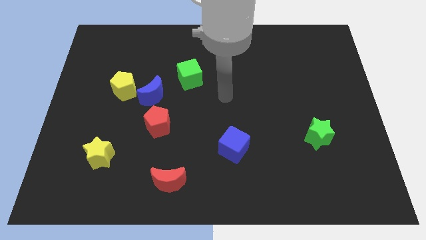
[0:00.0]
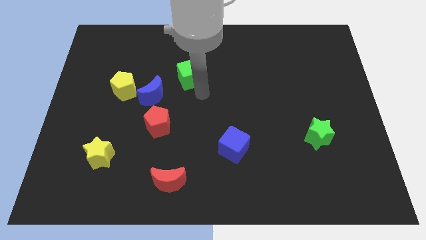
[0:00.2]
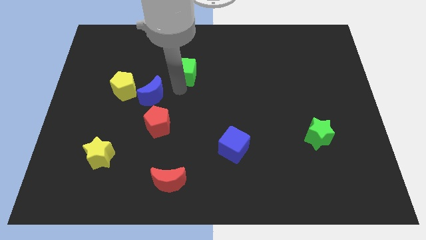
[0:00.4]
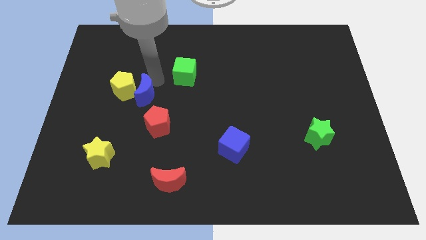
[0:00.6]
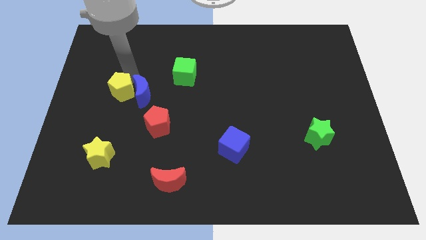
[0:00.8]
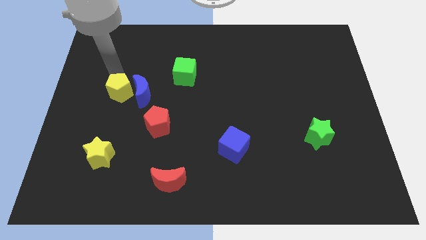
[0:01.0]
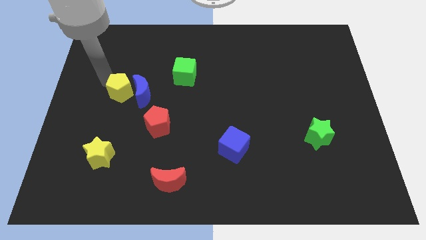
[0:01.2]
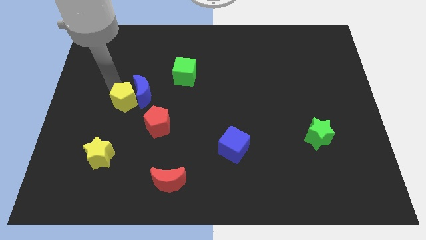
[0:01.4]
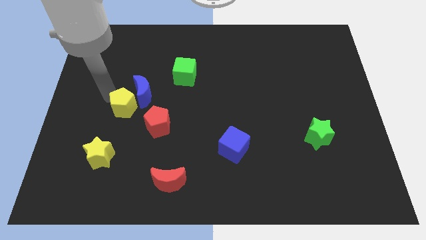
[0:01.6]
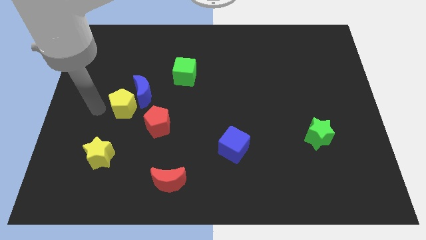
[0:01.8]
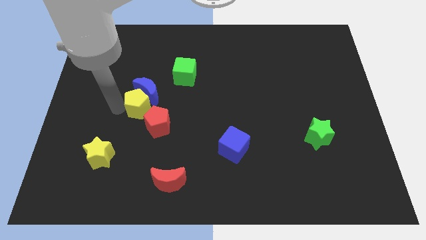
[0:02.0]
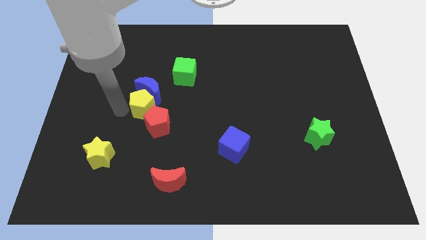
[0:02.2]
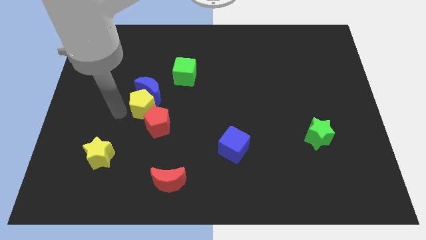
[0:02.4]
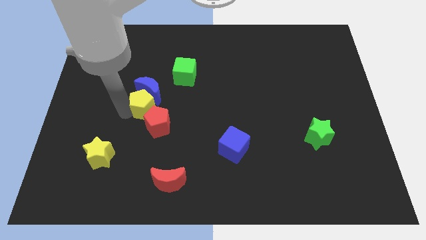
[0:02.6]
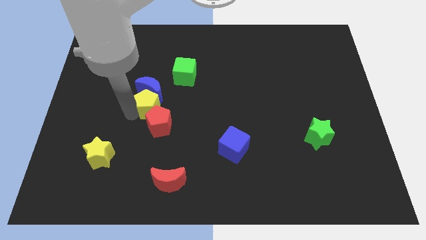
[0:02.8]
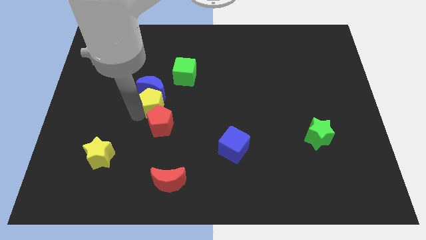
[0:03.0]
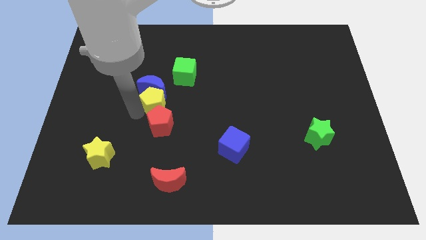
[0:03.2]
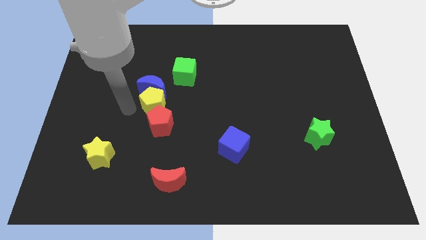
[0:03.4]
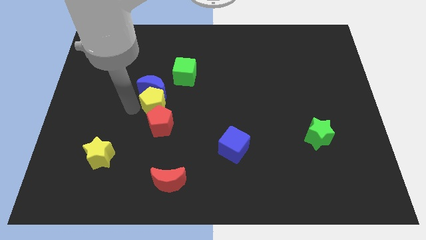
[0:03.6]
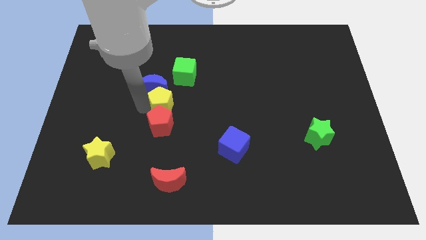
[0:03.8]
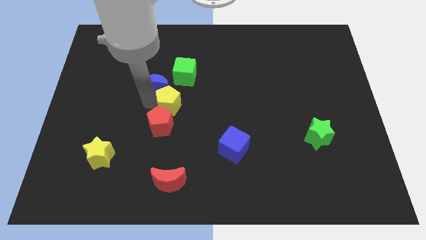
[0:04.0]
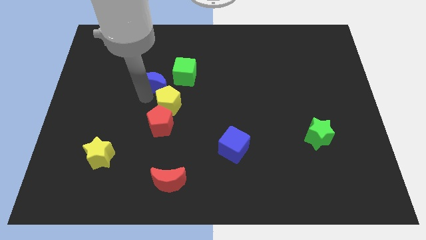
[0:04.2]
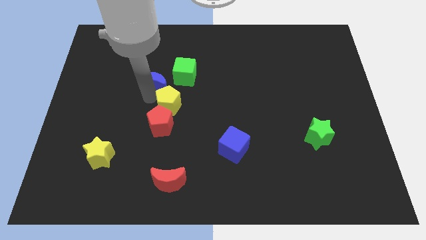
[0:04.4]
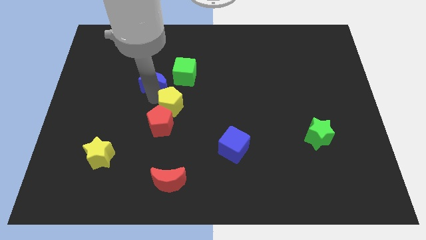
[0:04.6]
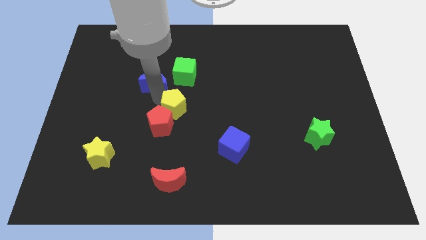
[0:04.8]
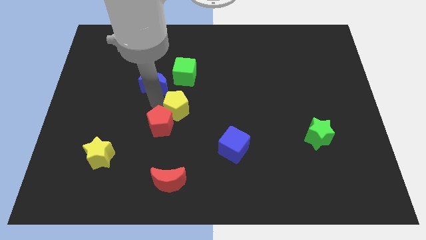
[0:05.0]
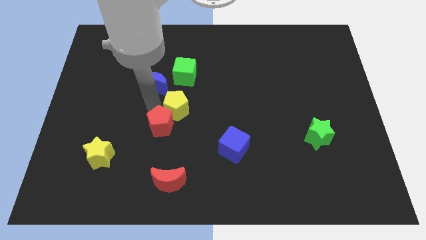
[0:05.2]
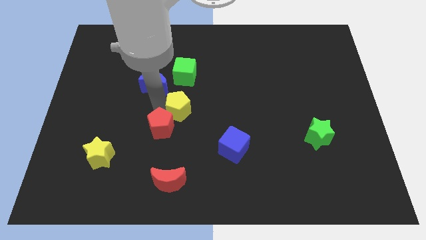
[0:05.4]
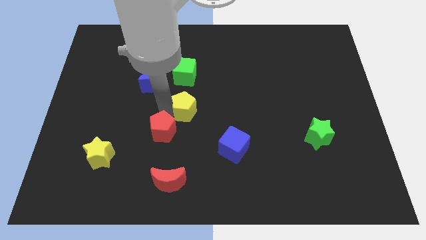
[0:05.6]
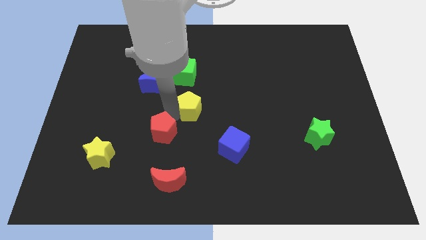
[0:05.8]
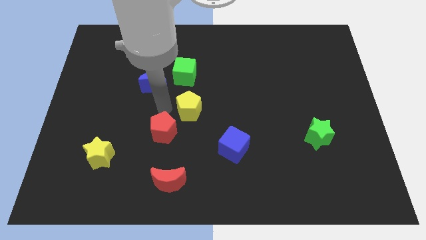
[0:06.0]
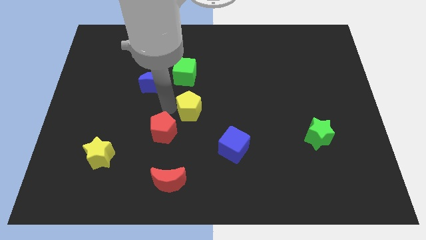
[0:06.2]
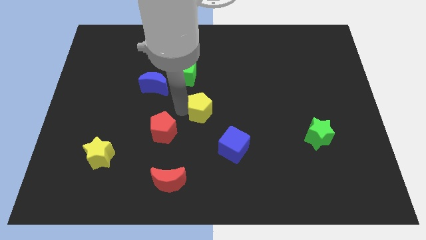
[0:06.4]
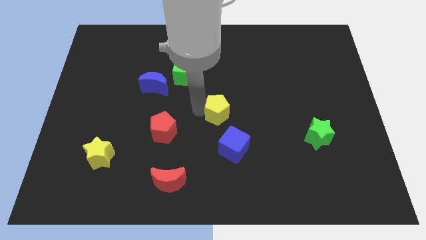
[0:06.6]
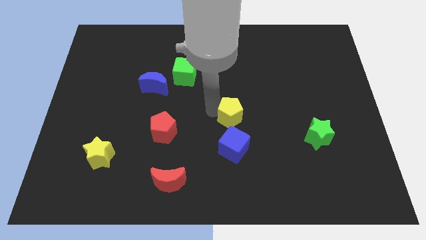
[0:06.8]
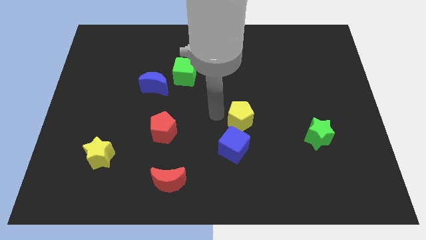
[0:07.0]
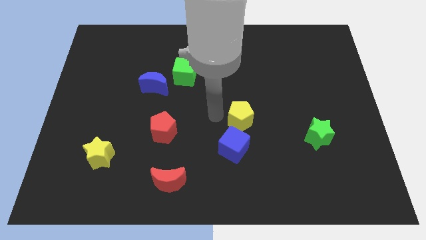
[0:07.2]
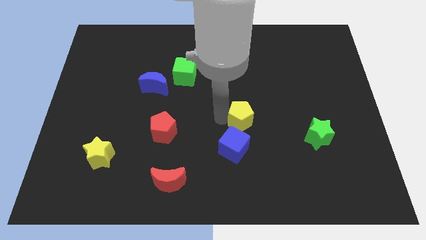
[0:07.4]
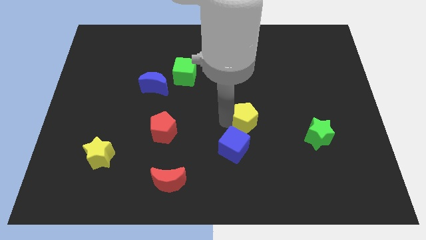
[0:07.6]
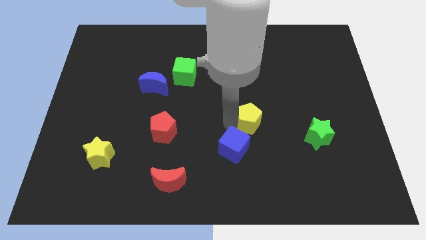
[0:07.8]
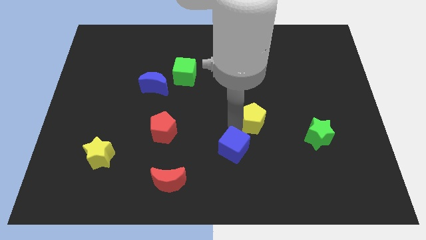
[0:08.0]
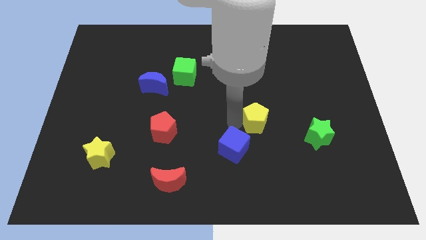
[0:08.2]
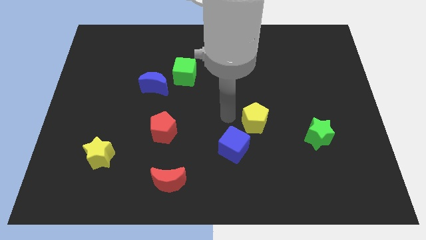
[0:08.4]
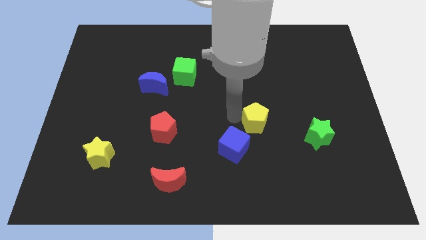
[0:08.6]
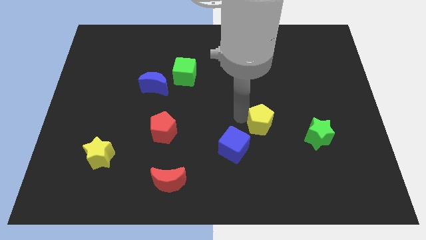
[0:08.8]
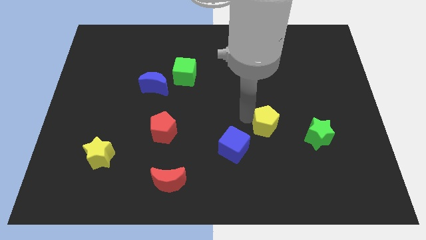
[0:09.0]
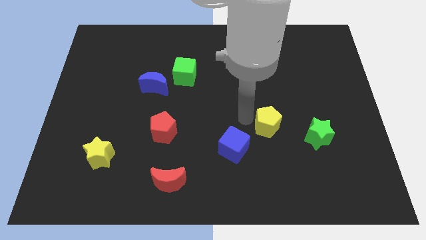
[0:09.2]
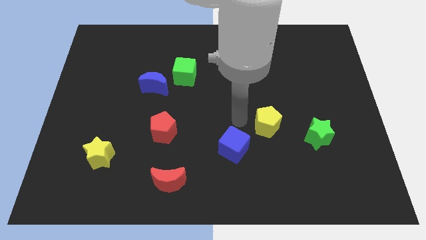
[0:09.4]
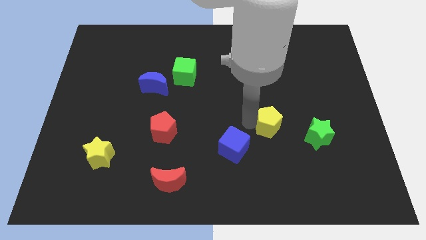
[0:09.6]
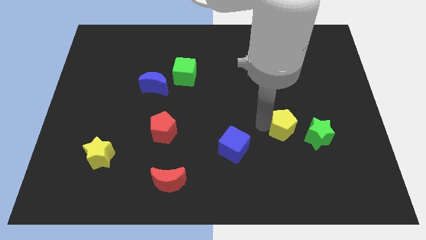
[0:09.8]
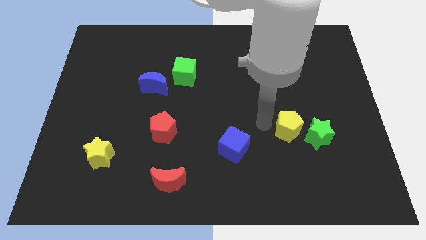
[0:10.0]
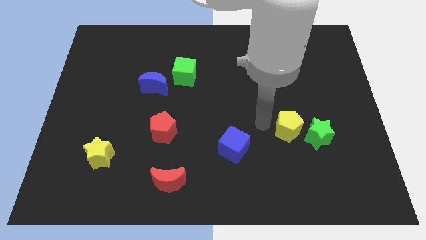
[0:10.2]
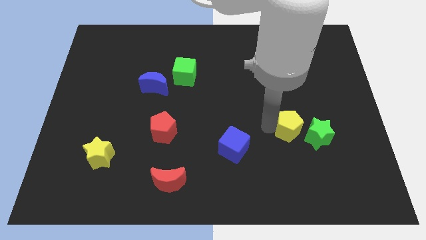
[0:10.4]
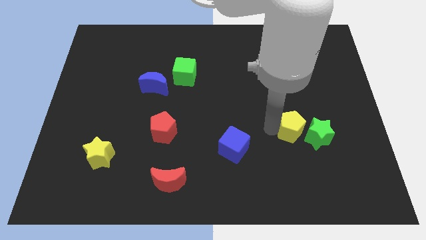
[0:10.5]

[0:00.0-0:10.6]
put the yellow pentagon close to the green star

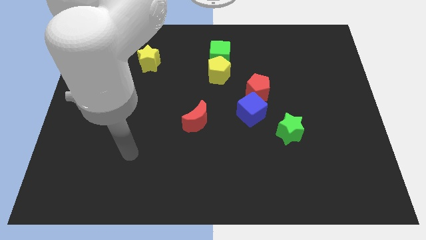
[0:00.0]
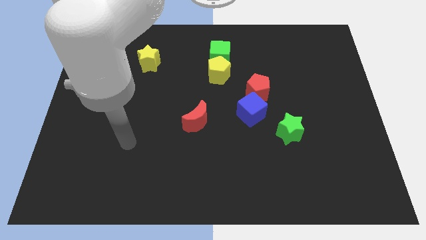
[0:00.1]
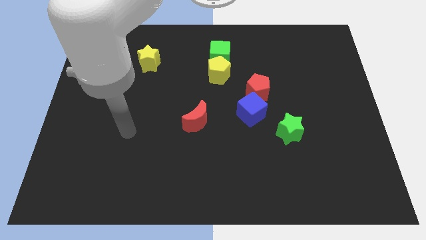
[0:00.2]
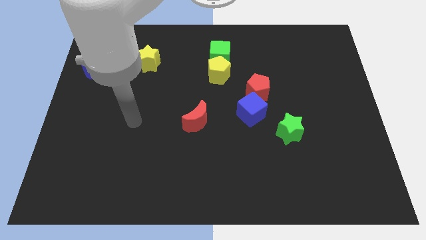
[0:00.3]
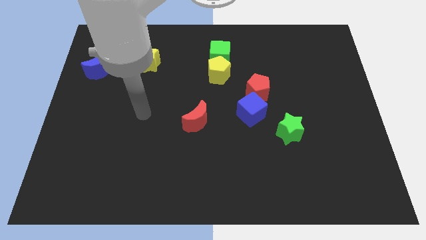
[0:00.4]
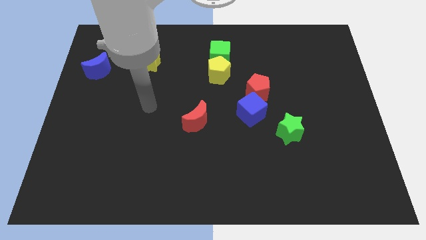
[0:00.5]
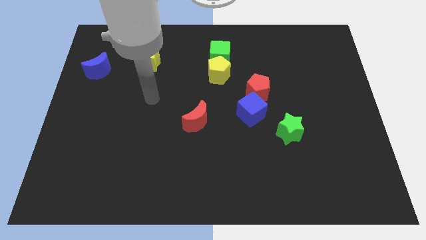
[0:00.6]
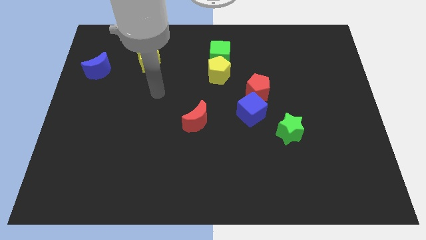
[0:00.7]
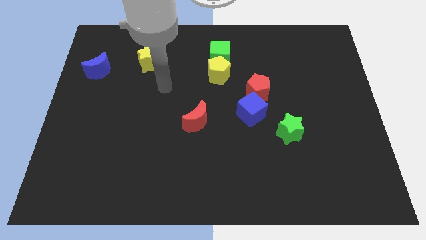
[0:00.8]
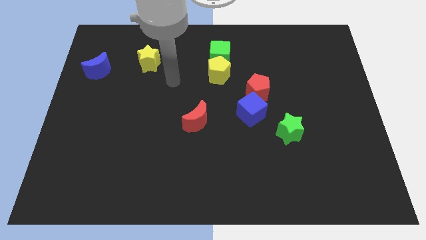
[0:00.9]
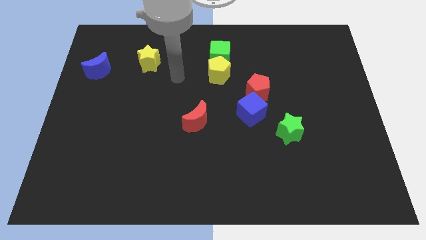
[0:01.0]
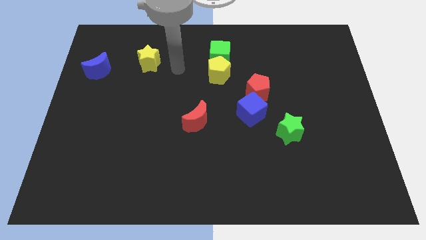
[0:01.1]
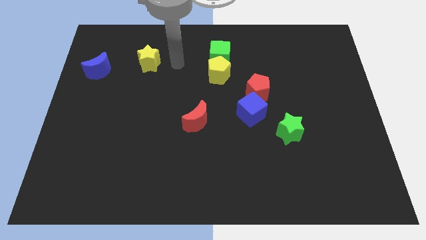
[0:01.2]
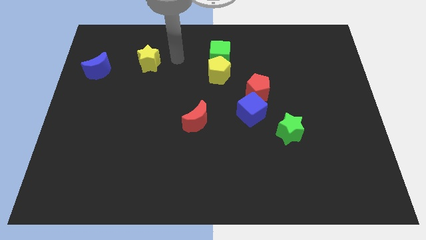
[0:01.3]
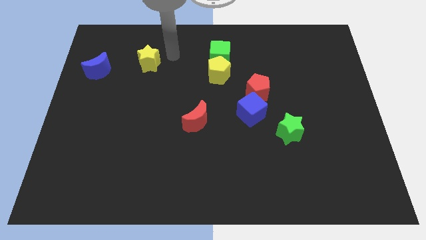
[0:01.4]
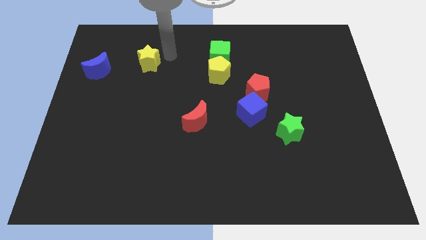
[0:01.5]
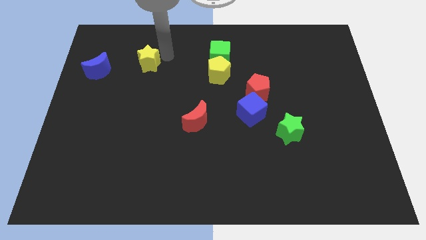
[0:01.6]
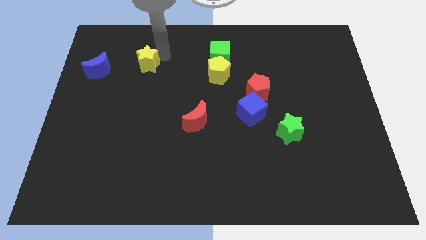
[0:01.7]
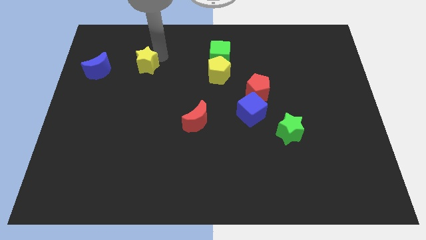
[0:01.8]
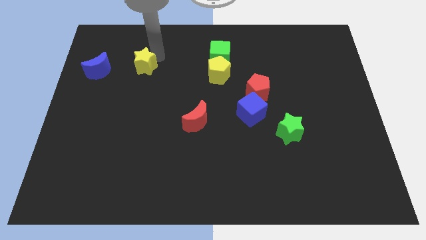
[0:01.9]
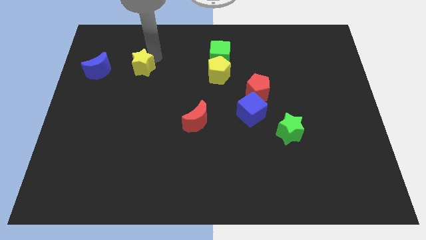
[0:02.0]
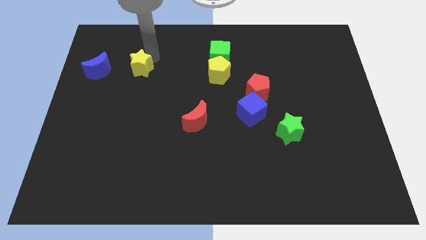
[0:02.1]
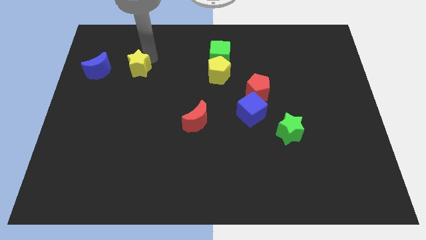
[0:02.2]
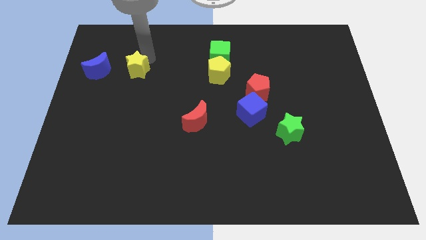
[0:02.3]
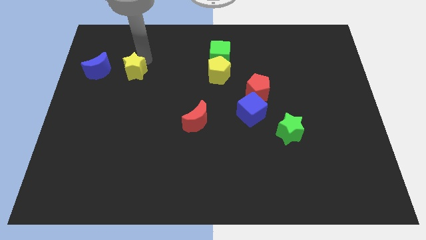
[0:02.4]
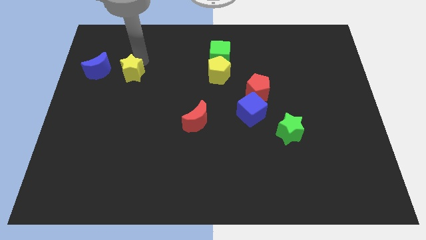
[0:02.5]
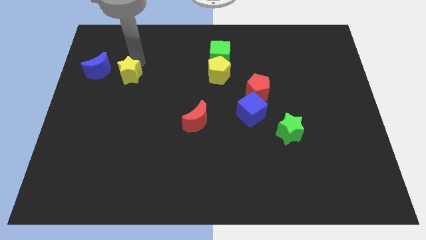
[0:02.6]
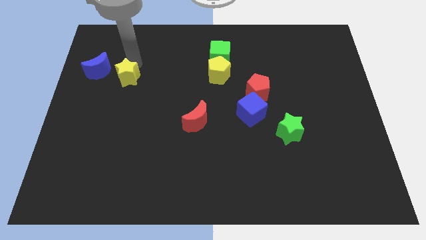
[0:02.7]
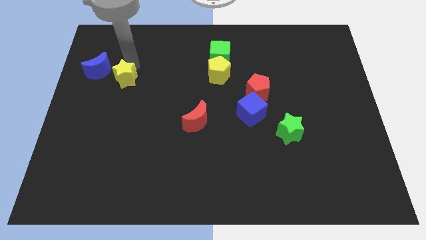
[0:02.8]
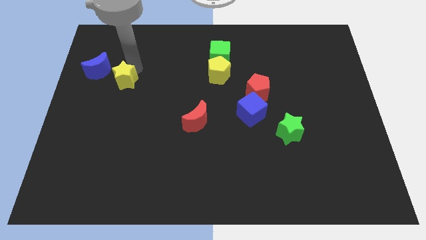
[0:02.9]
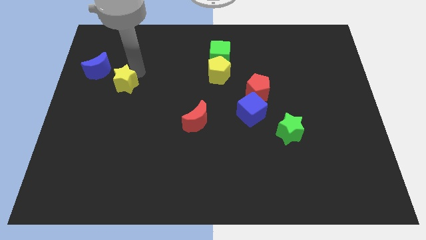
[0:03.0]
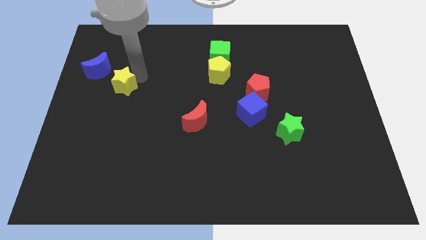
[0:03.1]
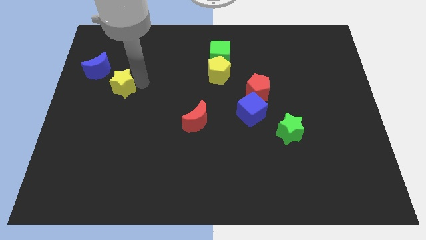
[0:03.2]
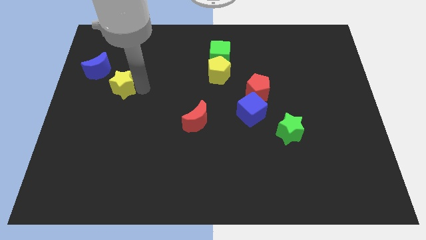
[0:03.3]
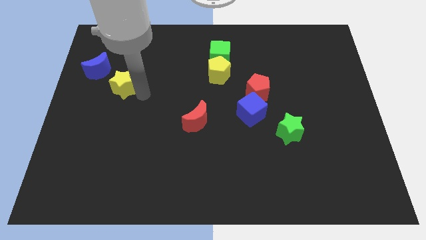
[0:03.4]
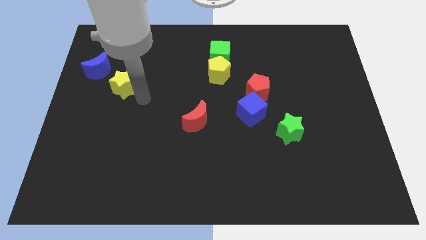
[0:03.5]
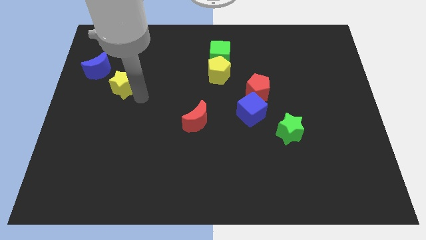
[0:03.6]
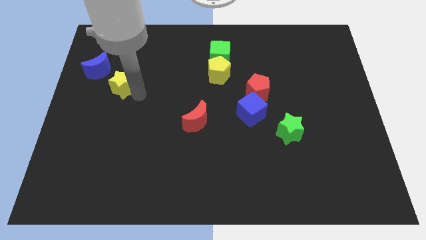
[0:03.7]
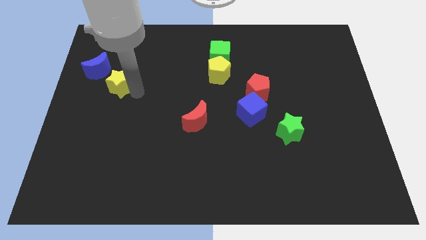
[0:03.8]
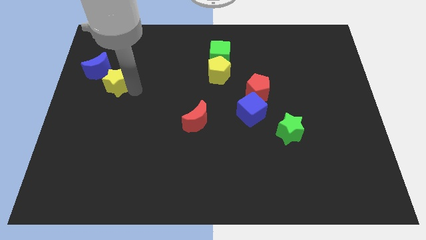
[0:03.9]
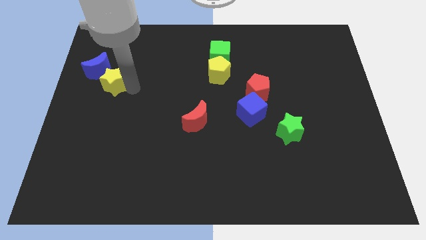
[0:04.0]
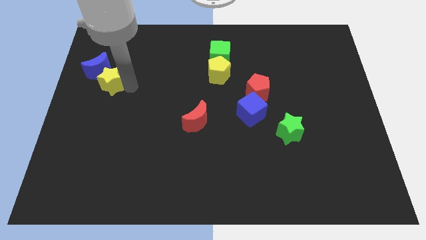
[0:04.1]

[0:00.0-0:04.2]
put the yellow star next to the blue moon
